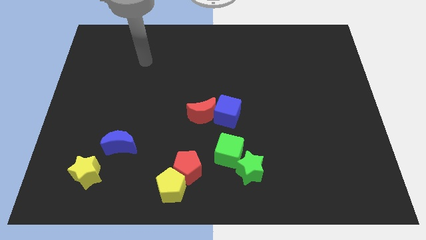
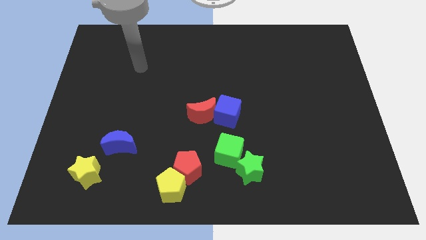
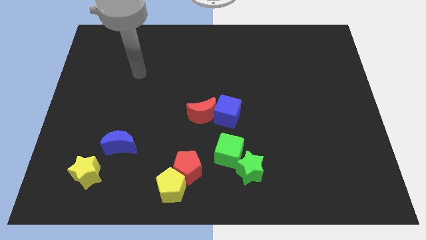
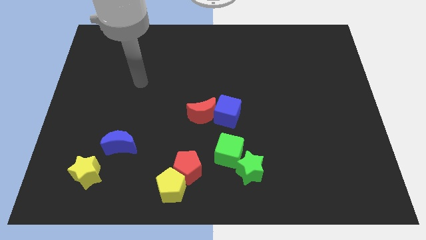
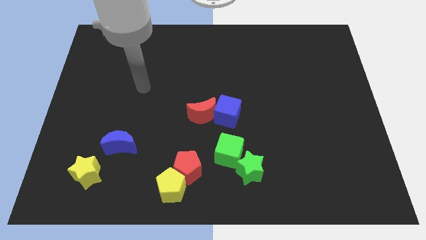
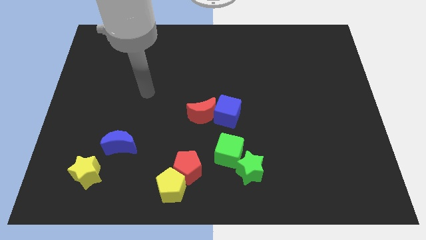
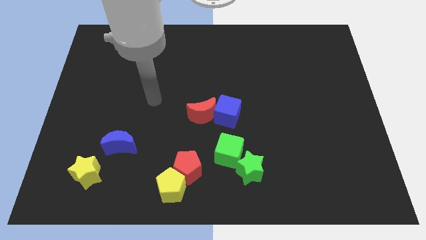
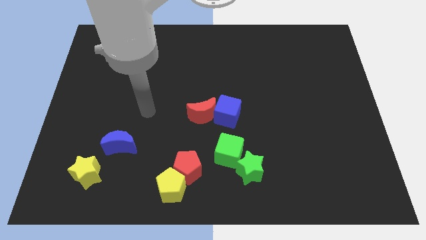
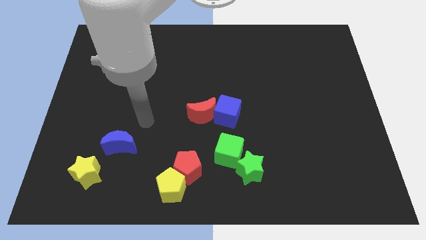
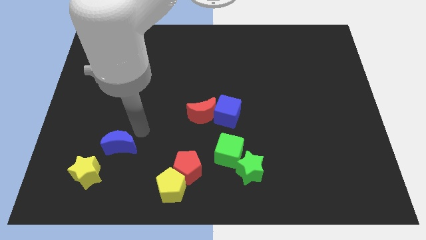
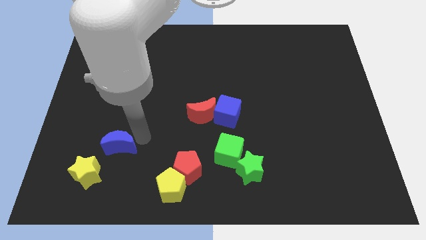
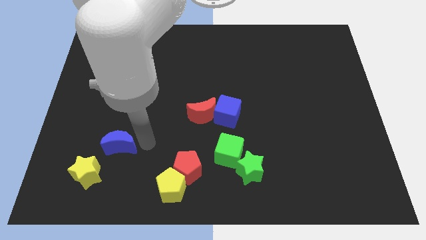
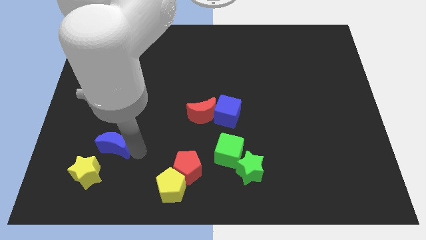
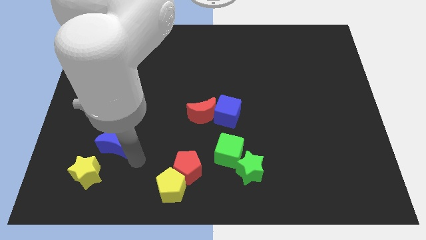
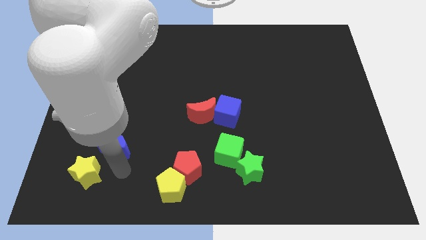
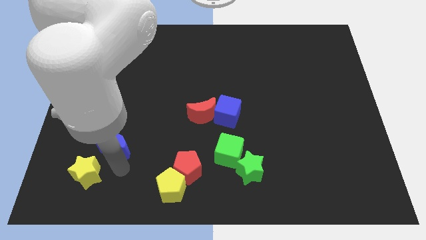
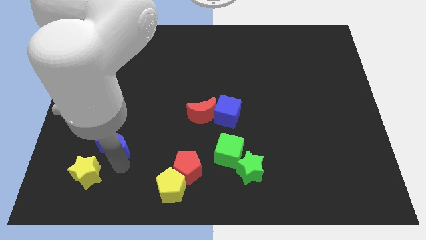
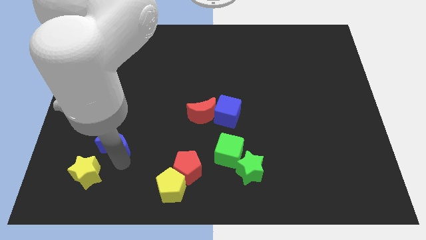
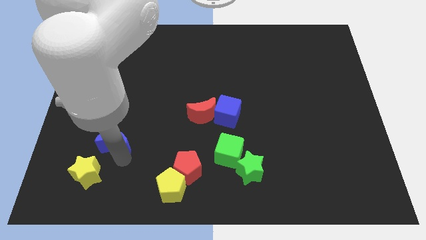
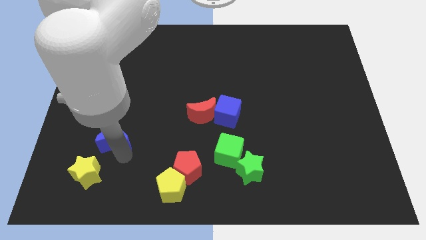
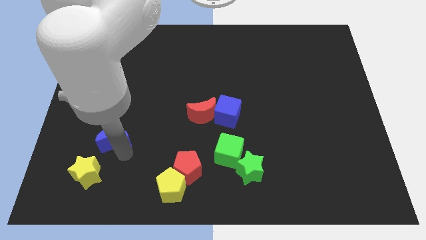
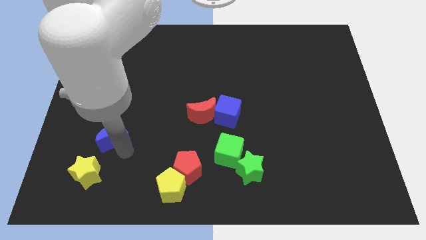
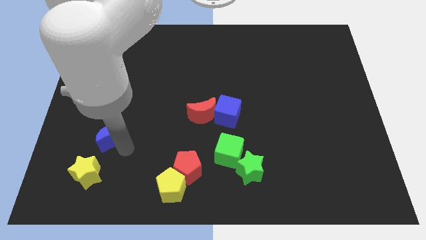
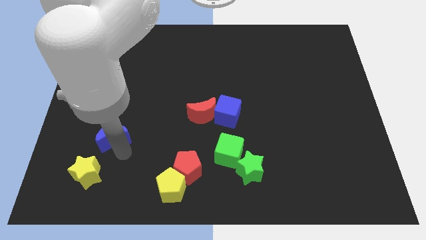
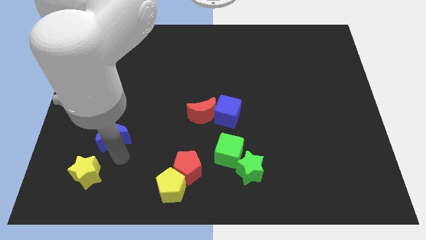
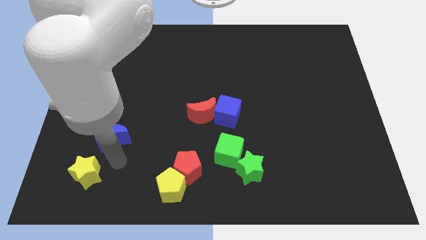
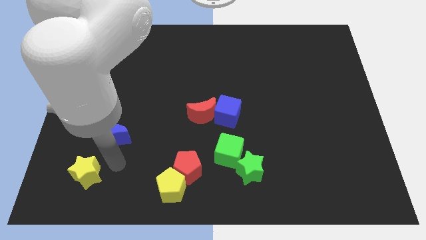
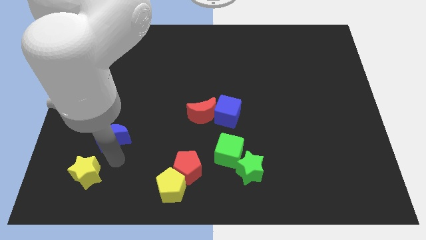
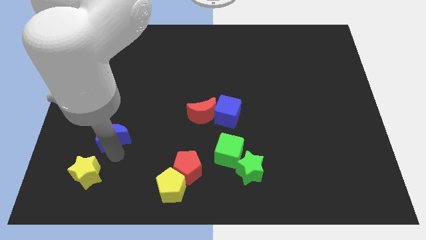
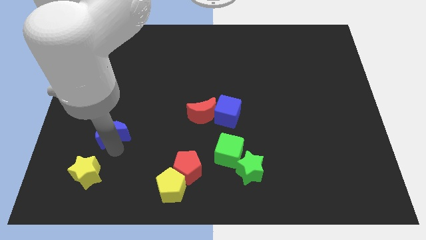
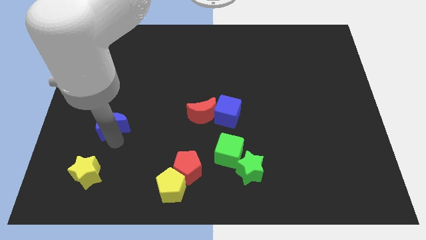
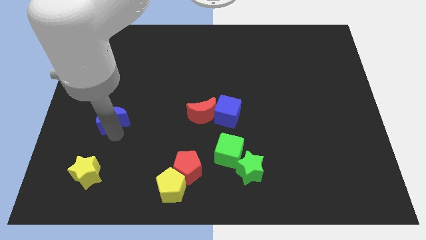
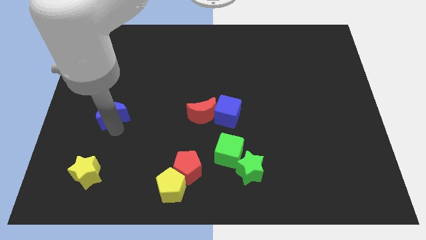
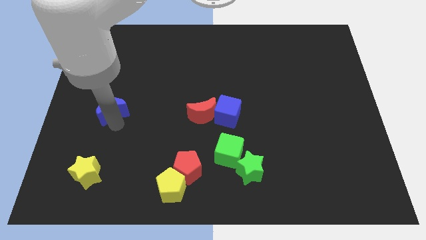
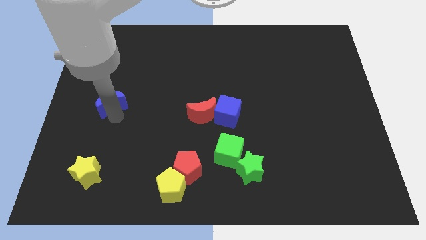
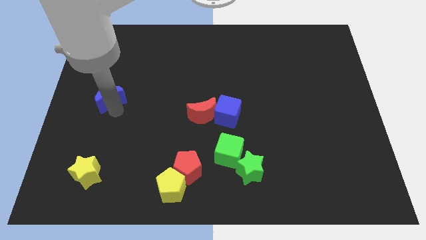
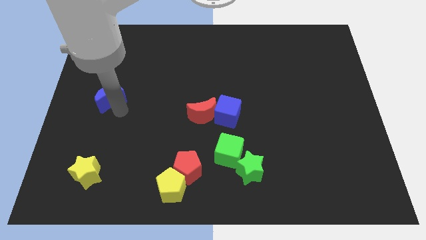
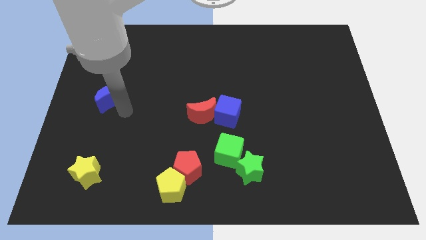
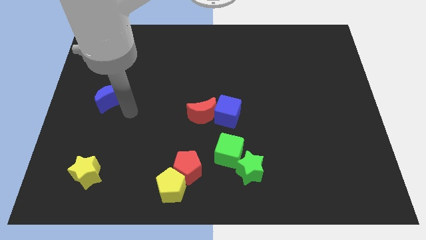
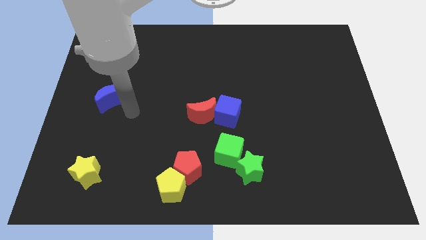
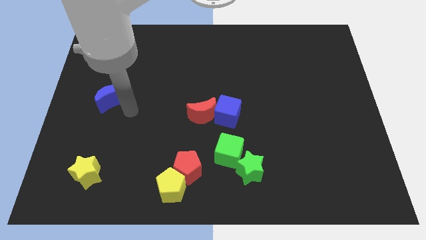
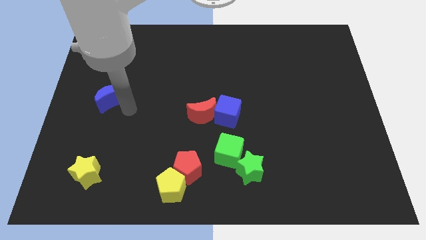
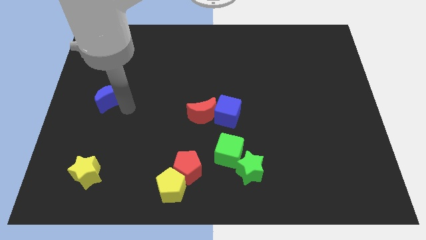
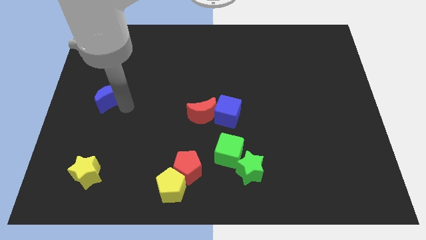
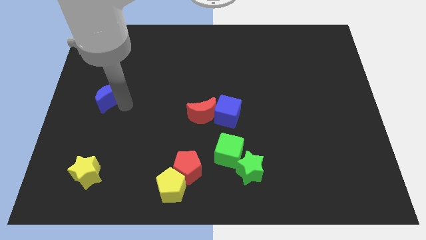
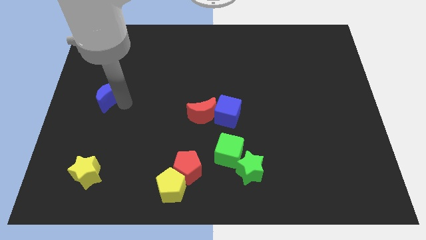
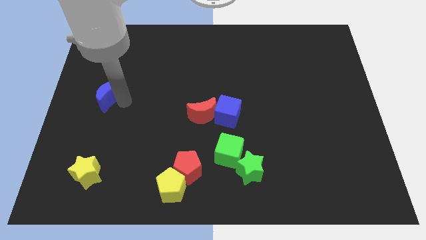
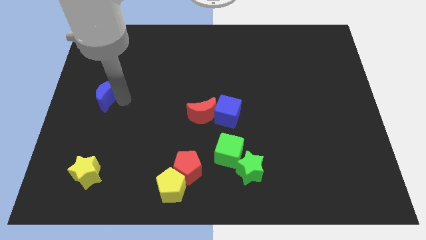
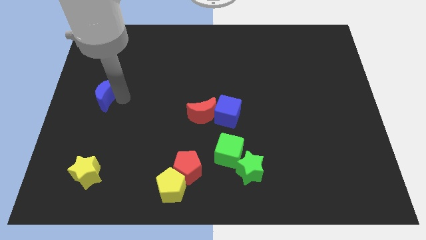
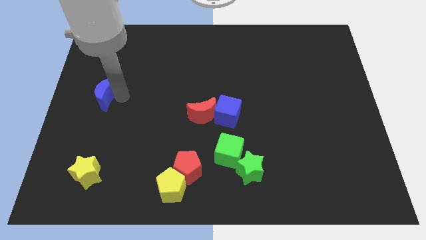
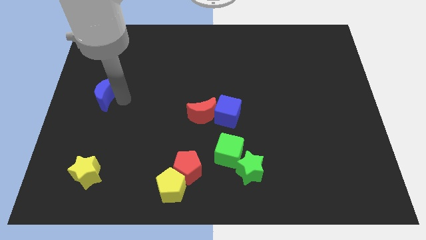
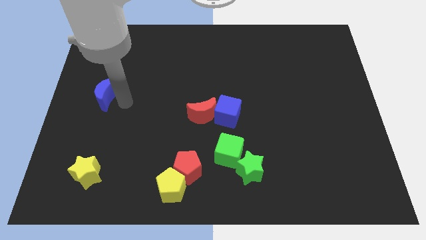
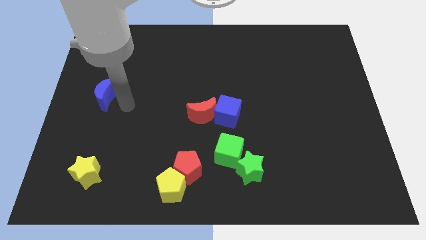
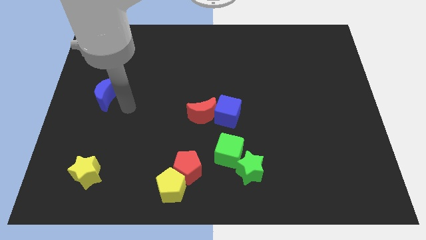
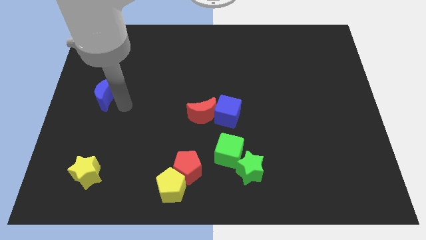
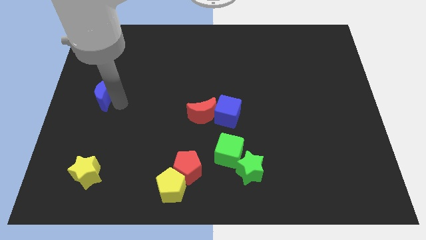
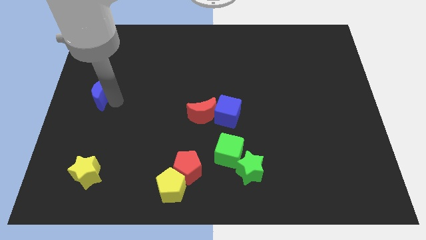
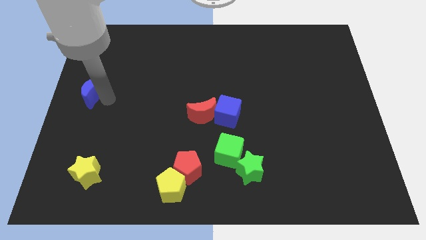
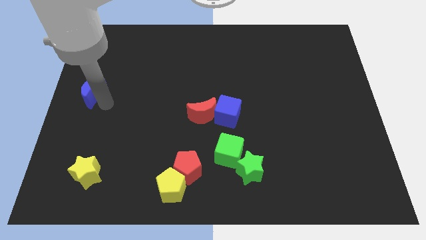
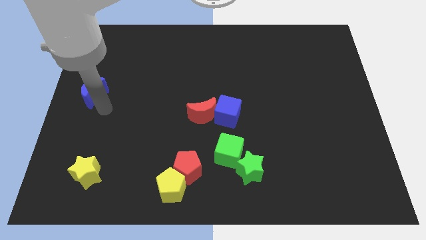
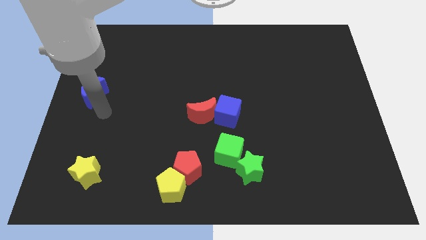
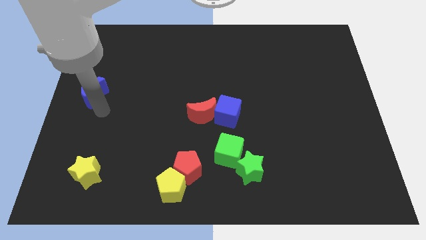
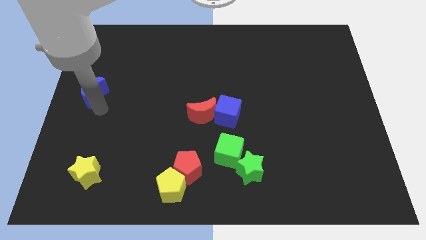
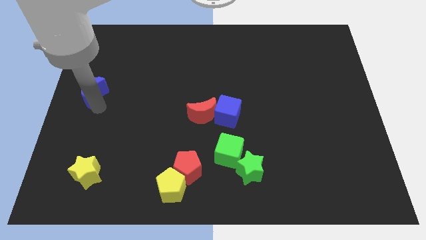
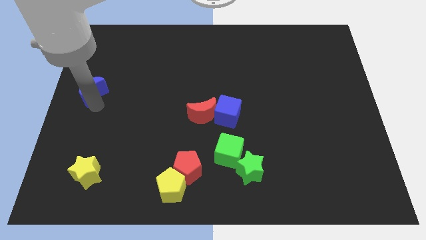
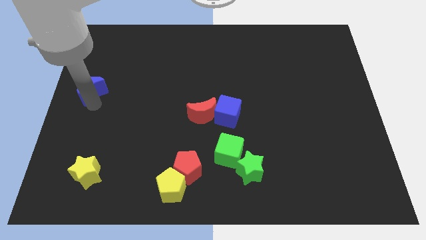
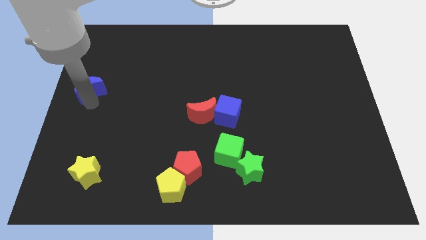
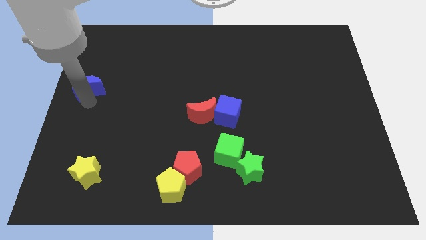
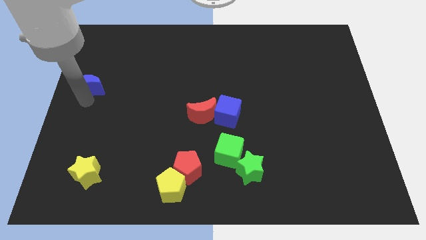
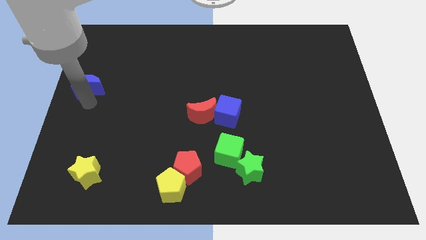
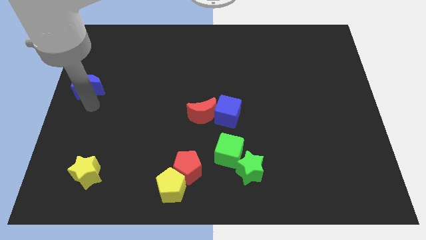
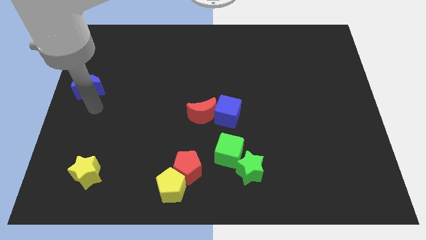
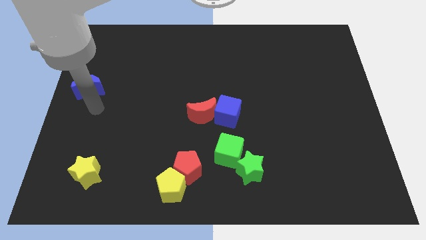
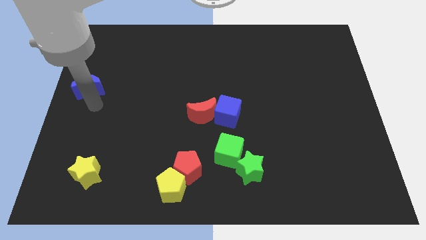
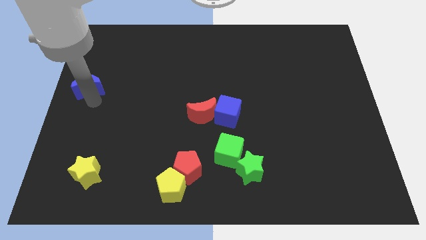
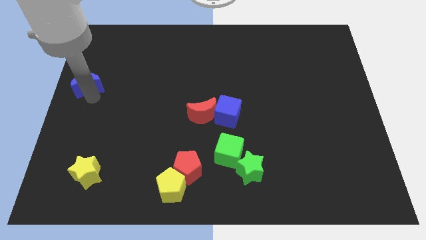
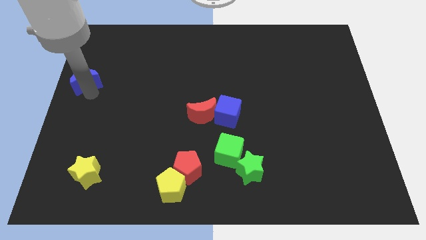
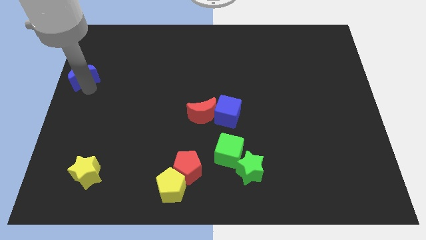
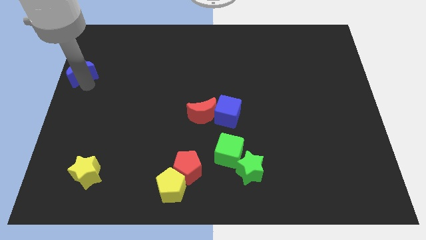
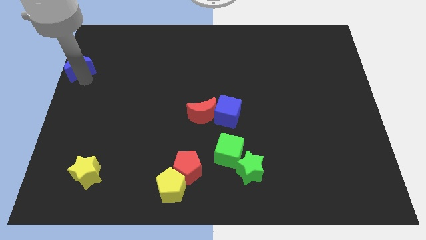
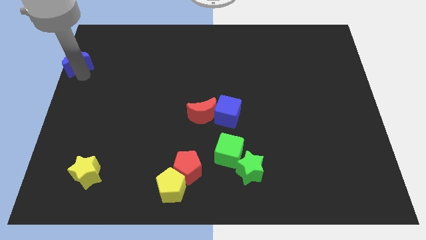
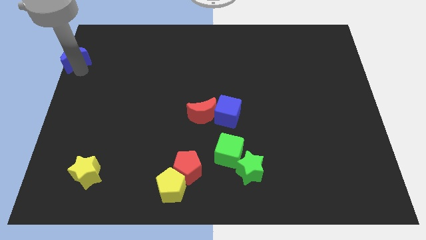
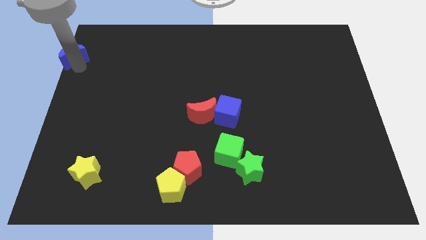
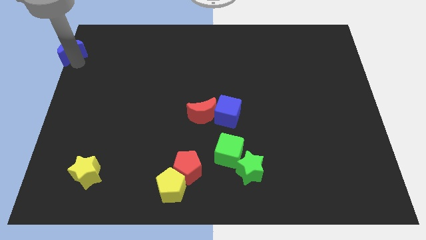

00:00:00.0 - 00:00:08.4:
move the blue moon to the top left of the board
